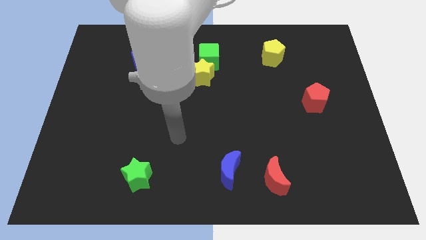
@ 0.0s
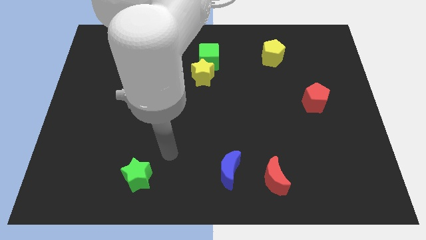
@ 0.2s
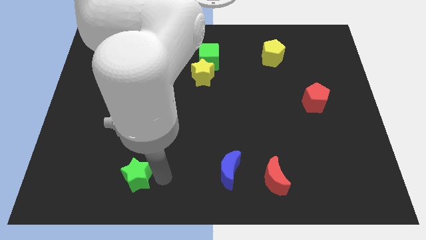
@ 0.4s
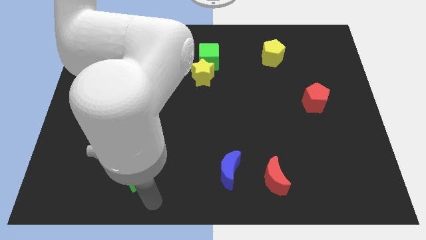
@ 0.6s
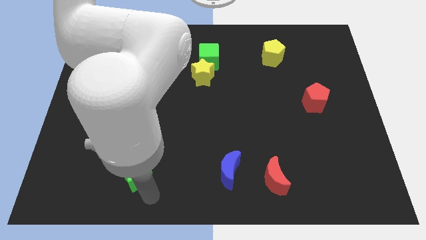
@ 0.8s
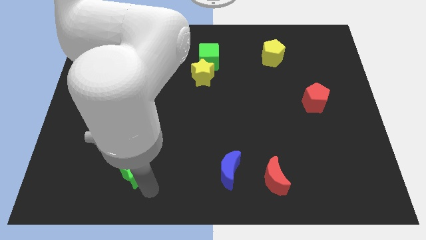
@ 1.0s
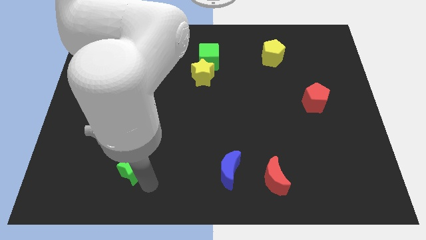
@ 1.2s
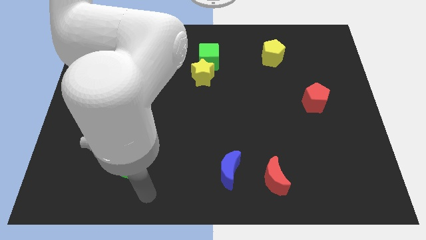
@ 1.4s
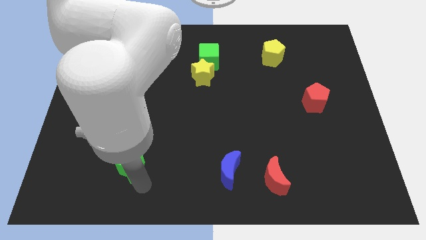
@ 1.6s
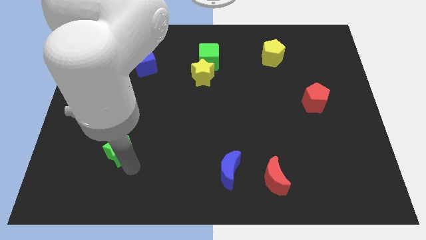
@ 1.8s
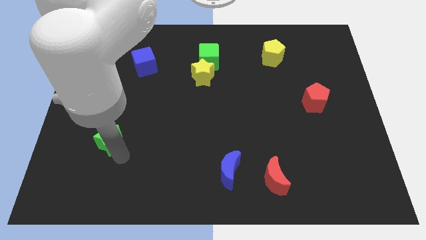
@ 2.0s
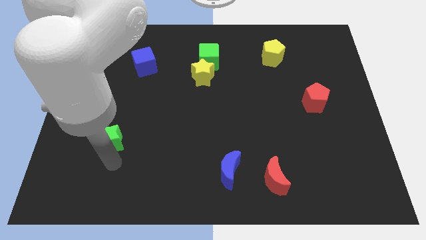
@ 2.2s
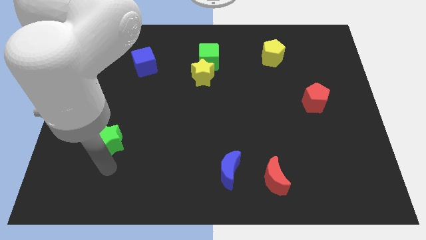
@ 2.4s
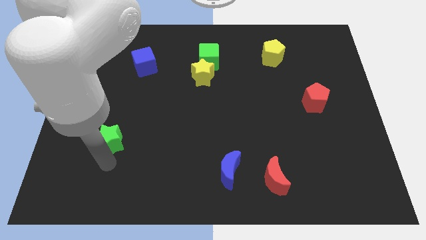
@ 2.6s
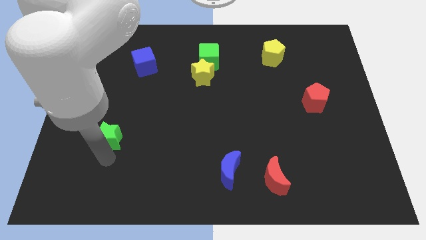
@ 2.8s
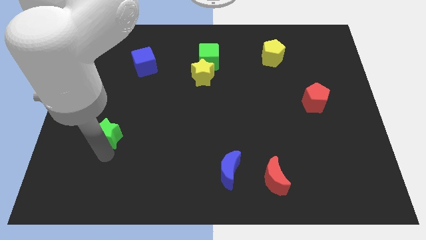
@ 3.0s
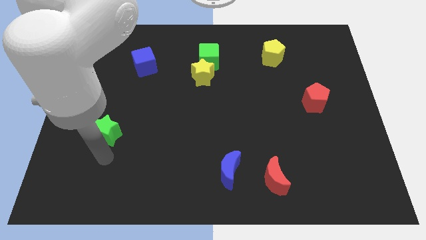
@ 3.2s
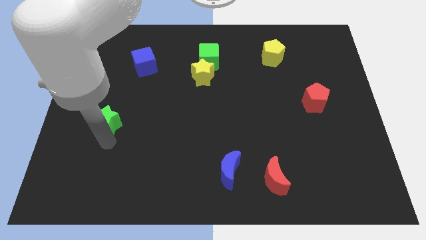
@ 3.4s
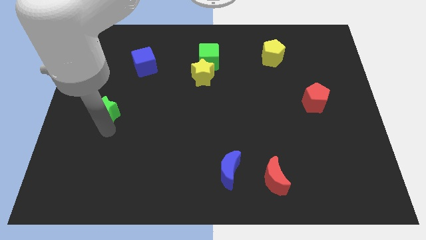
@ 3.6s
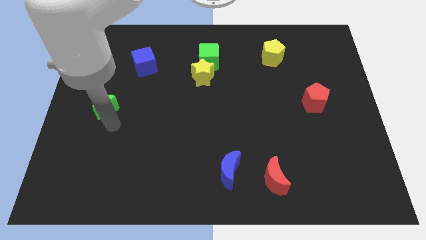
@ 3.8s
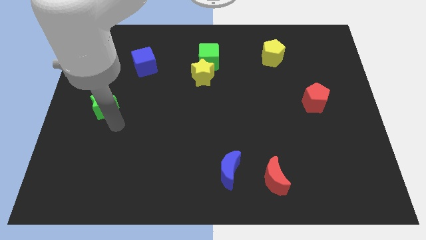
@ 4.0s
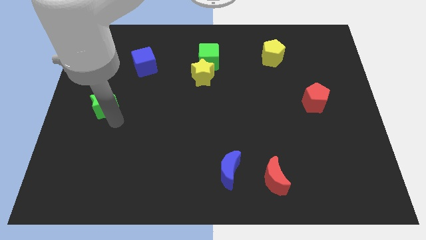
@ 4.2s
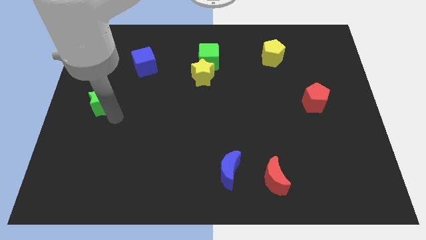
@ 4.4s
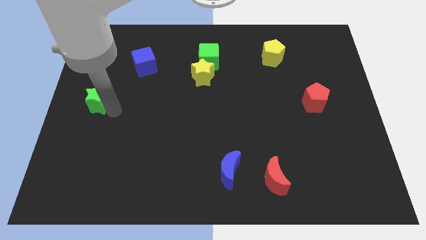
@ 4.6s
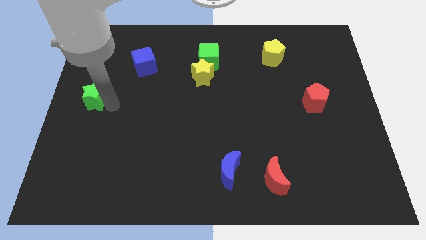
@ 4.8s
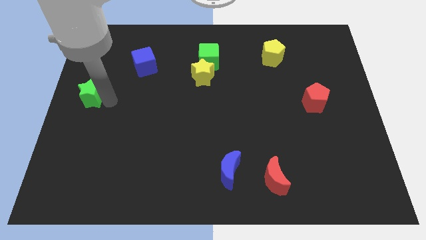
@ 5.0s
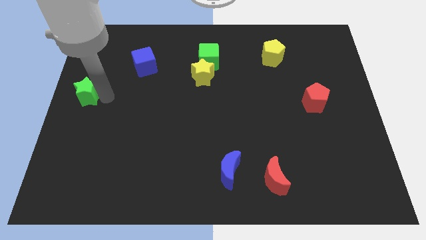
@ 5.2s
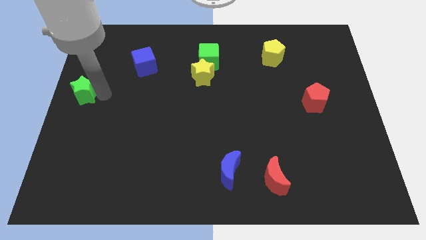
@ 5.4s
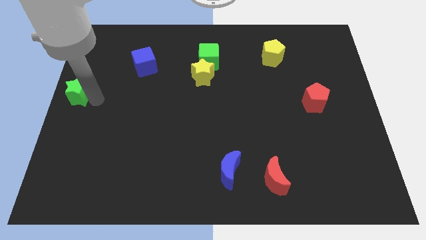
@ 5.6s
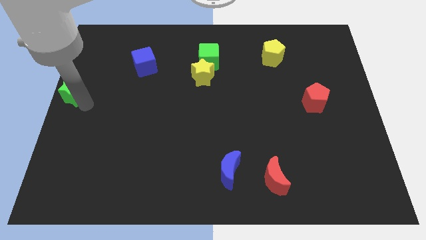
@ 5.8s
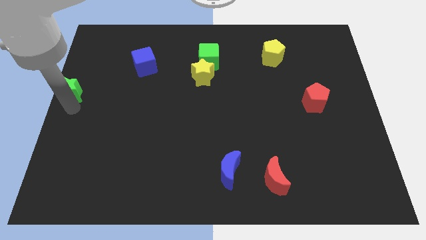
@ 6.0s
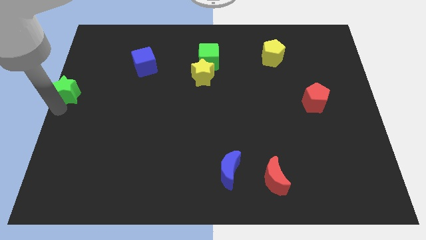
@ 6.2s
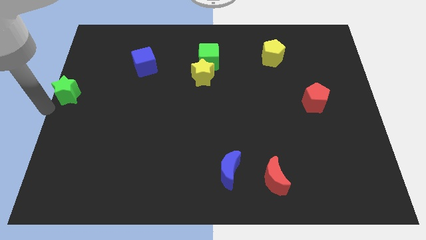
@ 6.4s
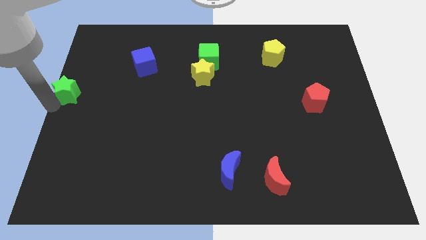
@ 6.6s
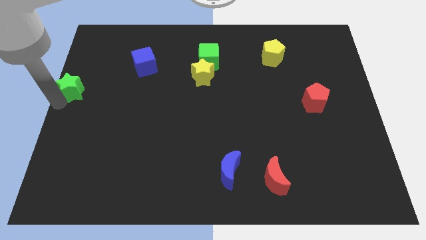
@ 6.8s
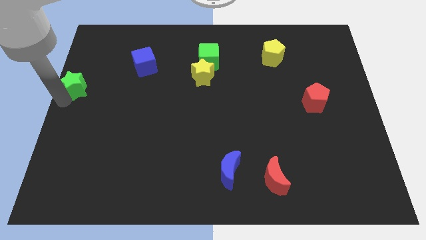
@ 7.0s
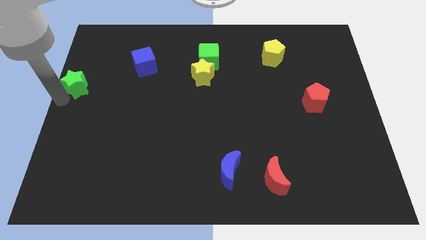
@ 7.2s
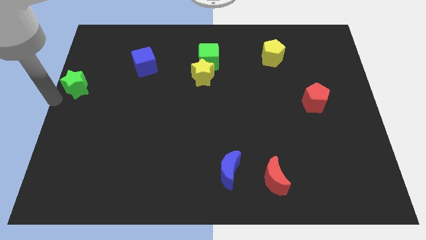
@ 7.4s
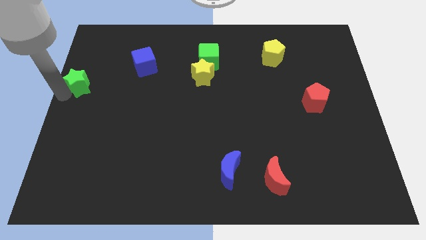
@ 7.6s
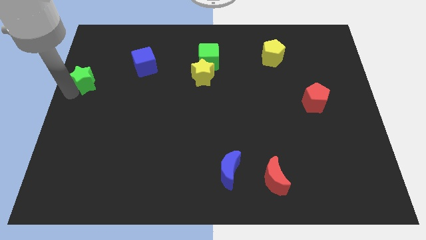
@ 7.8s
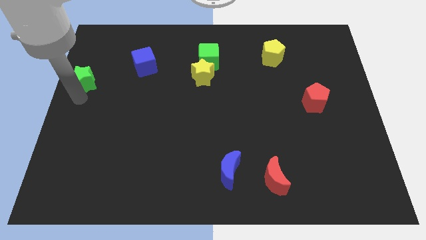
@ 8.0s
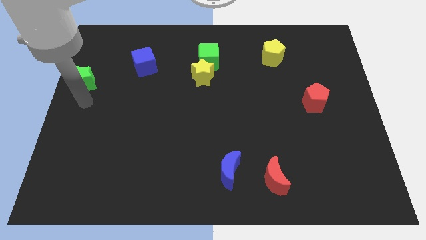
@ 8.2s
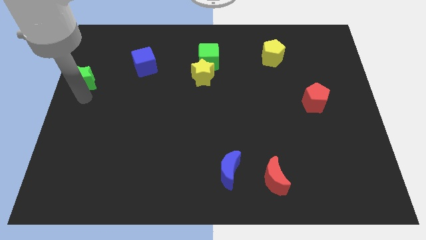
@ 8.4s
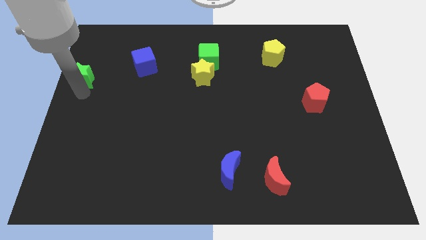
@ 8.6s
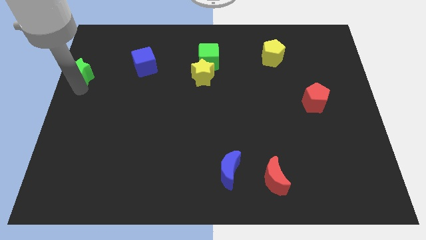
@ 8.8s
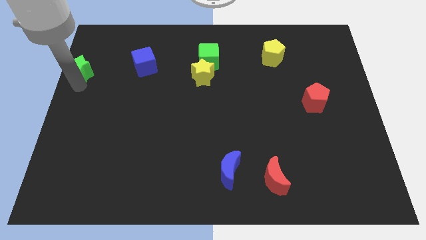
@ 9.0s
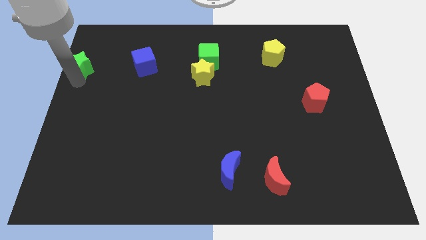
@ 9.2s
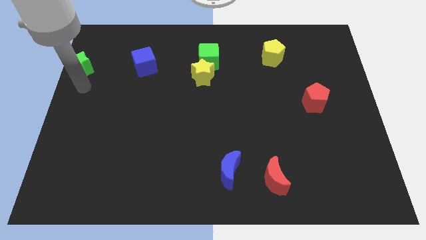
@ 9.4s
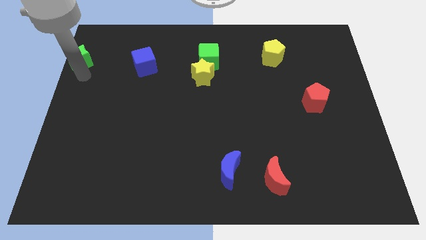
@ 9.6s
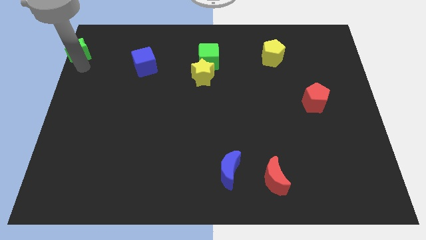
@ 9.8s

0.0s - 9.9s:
push the green star to the upper left corner
